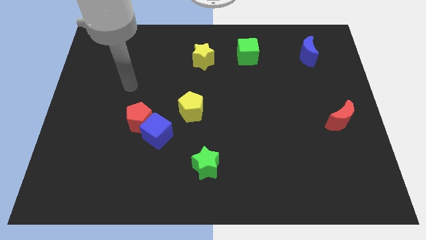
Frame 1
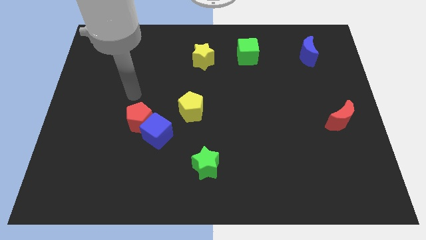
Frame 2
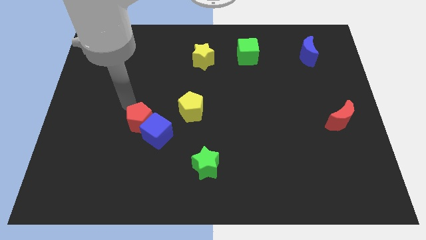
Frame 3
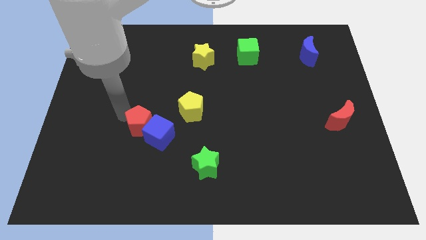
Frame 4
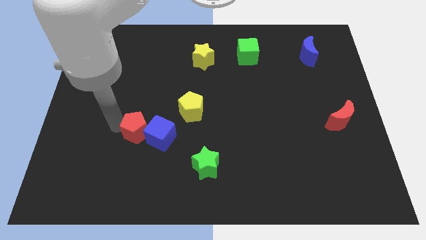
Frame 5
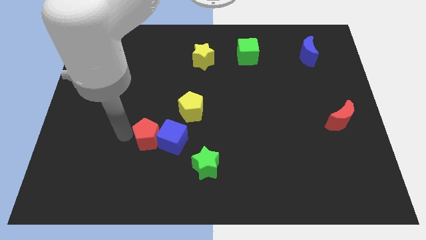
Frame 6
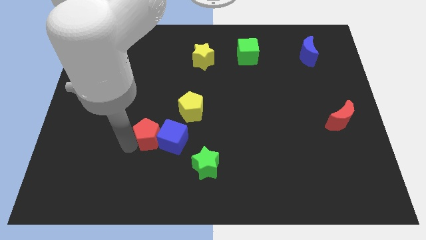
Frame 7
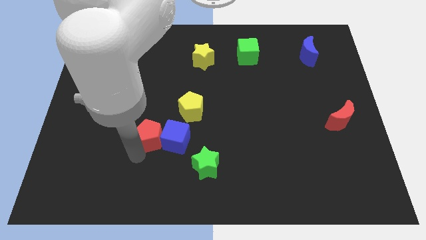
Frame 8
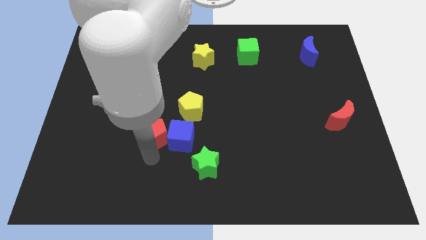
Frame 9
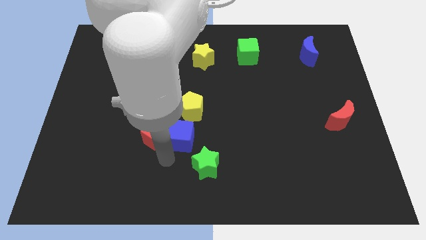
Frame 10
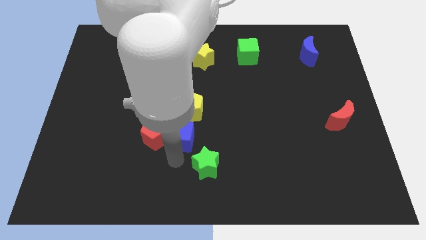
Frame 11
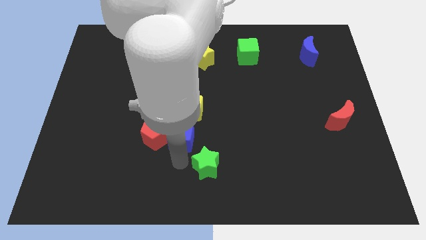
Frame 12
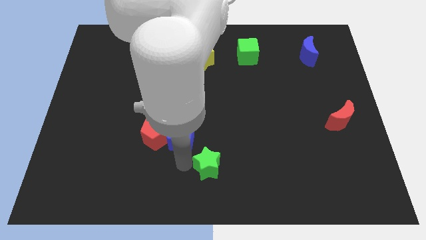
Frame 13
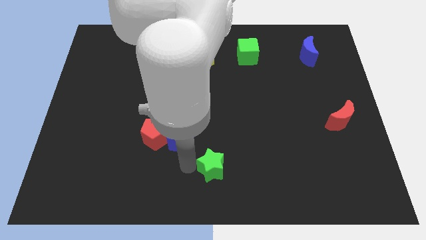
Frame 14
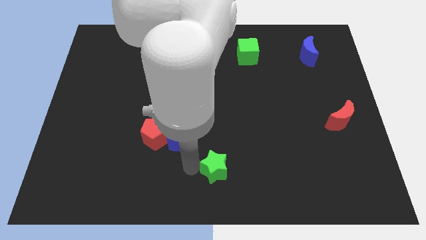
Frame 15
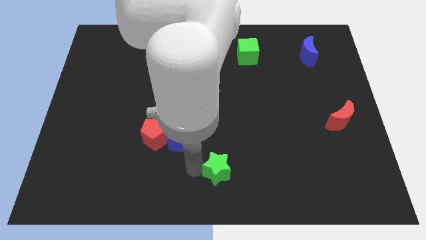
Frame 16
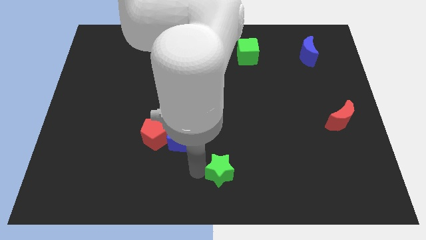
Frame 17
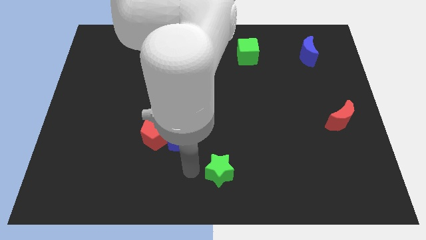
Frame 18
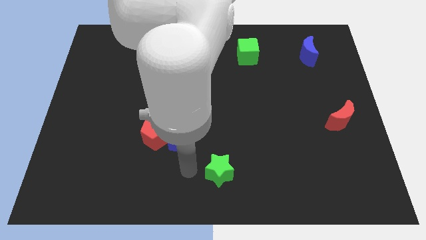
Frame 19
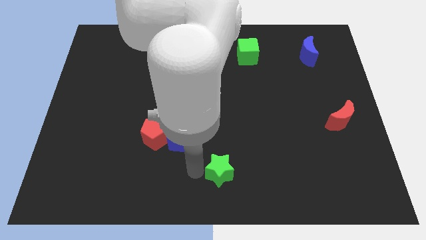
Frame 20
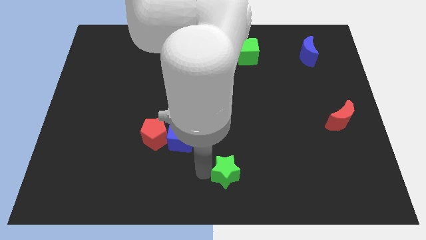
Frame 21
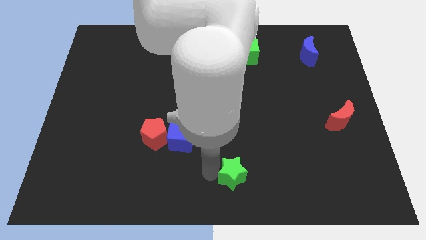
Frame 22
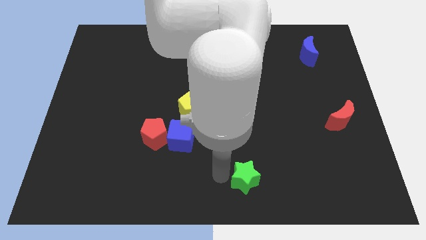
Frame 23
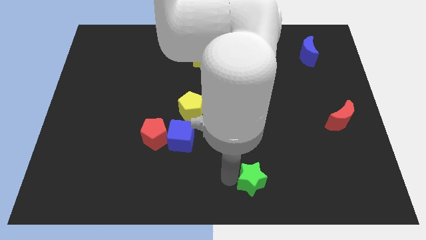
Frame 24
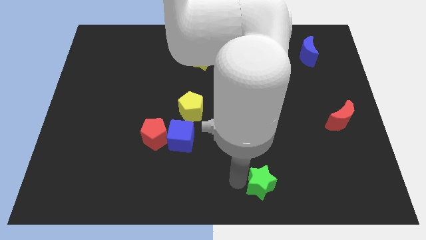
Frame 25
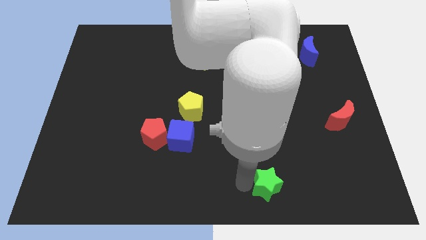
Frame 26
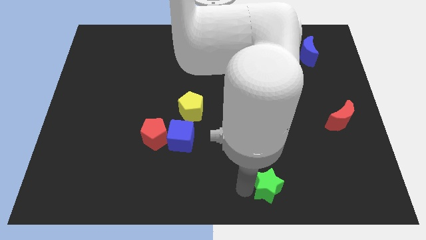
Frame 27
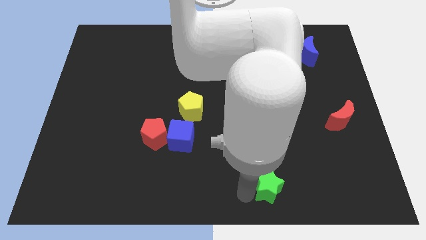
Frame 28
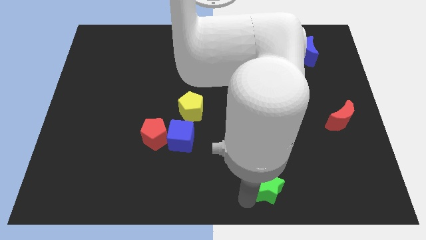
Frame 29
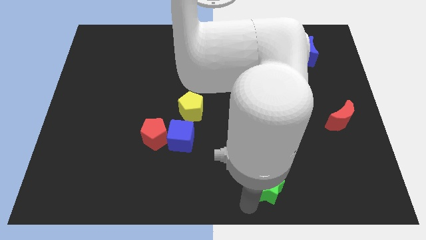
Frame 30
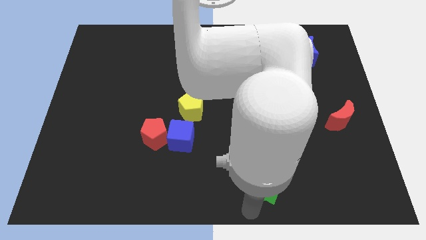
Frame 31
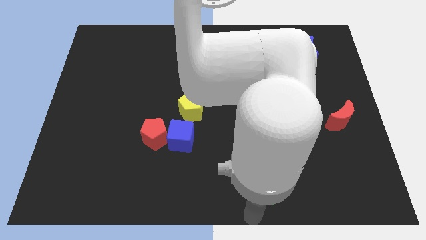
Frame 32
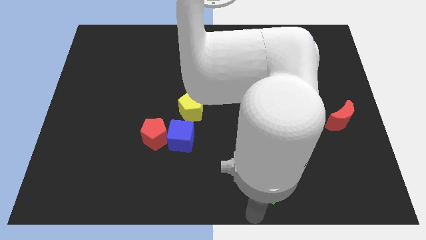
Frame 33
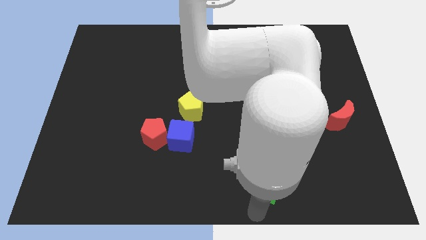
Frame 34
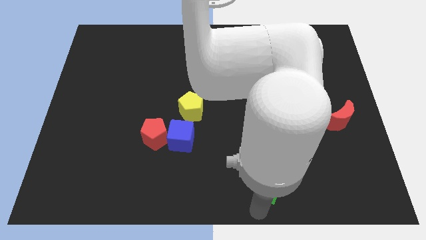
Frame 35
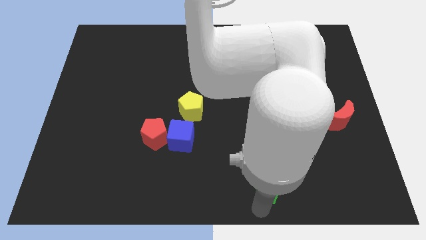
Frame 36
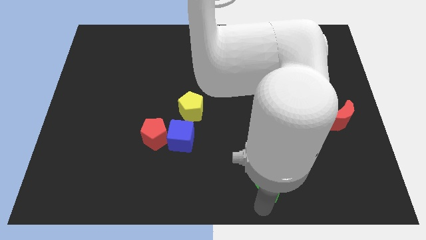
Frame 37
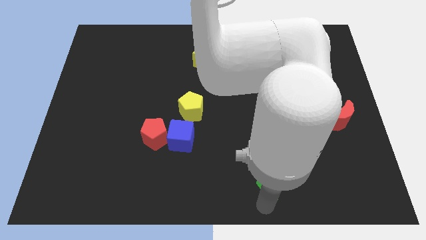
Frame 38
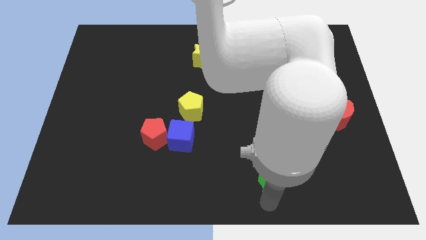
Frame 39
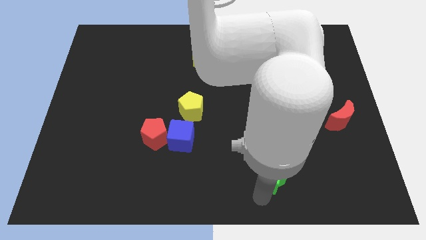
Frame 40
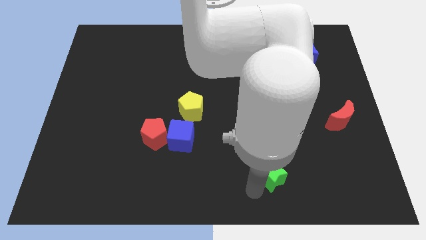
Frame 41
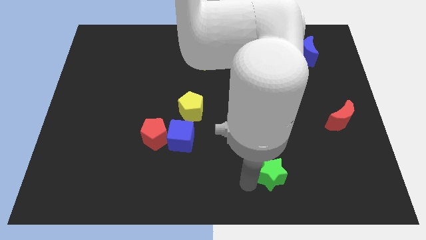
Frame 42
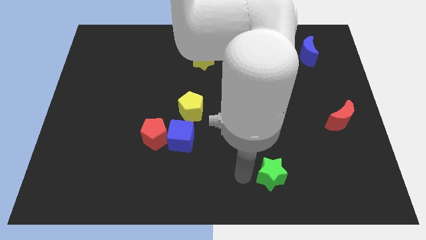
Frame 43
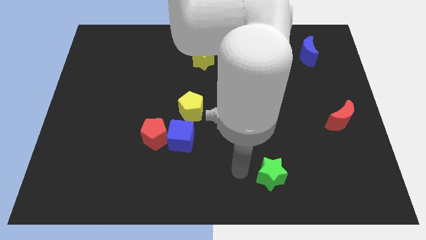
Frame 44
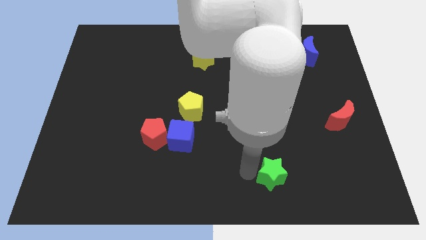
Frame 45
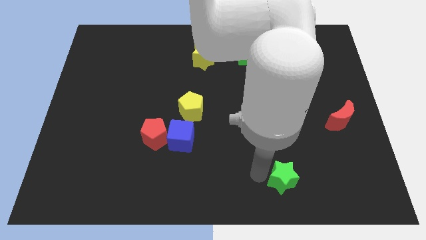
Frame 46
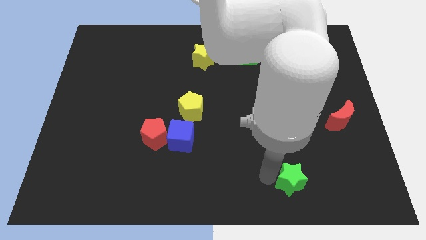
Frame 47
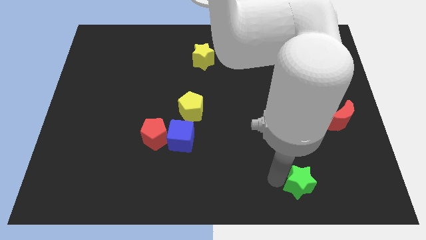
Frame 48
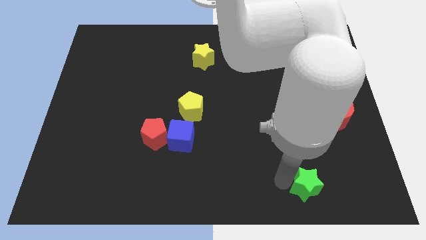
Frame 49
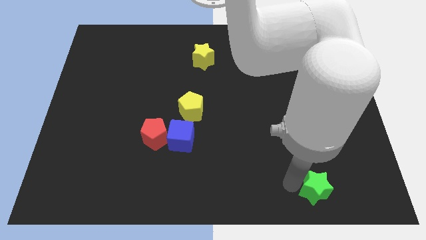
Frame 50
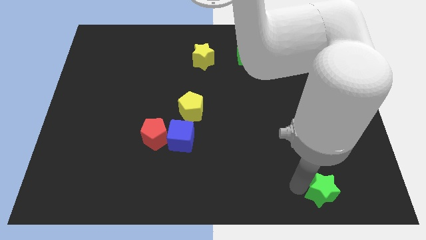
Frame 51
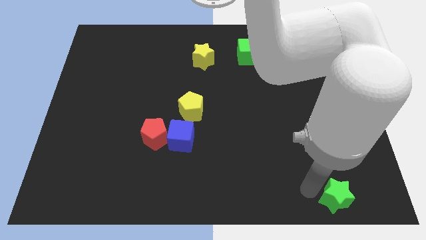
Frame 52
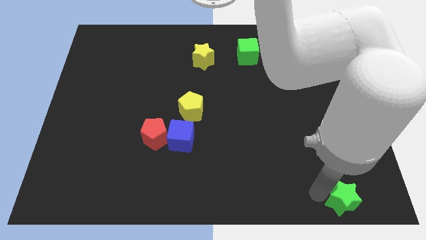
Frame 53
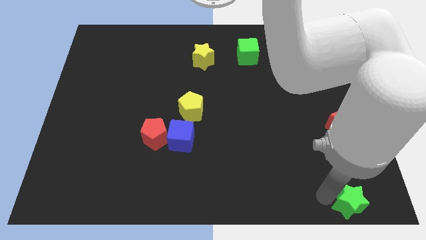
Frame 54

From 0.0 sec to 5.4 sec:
push the green star to the bottom right of the board
